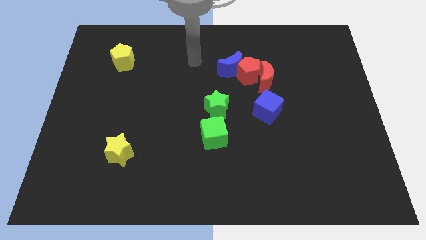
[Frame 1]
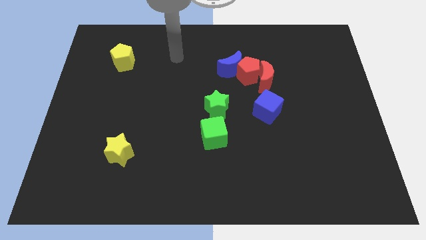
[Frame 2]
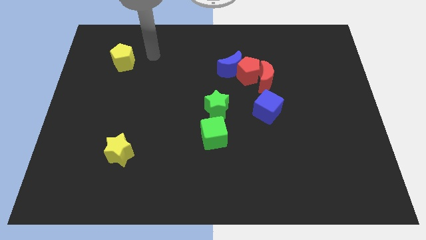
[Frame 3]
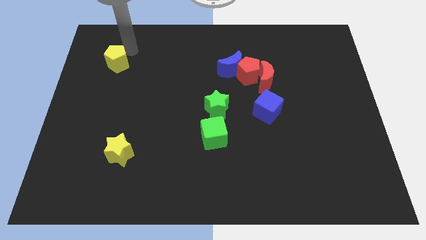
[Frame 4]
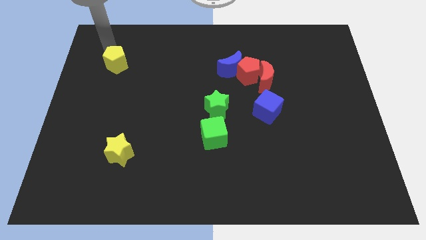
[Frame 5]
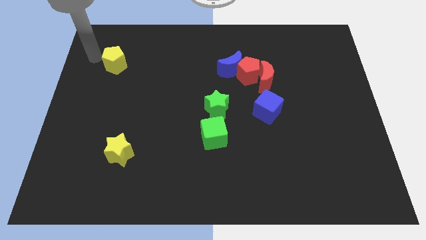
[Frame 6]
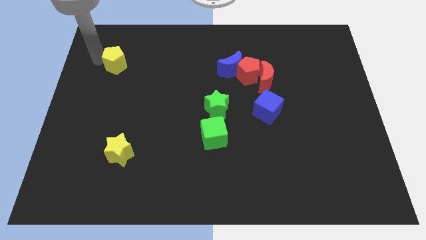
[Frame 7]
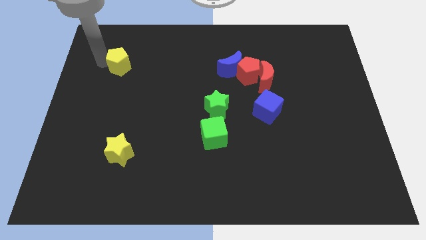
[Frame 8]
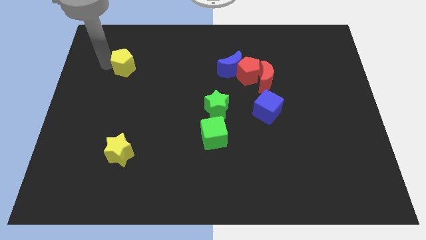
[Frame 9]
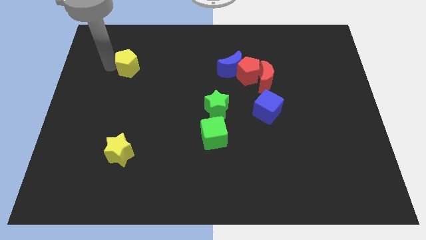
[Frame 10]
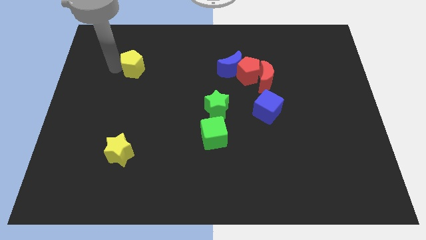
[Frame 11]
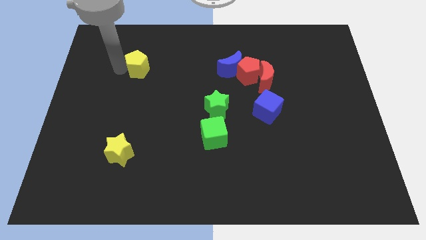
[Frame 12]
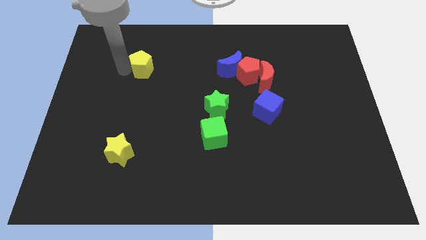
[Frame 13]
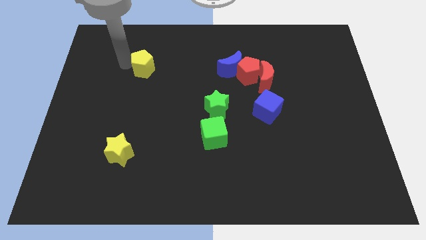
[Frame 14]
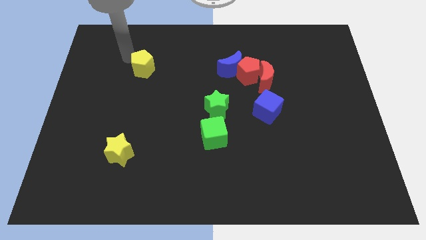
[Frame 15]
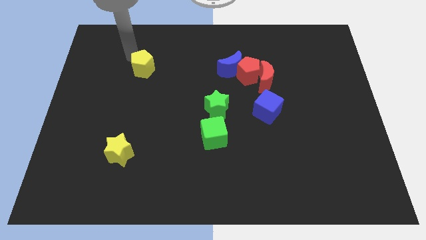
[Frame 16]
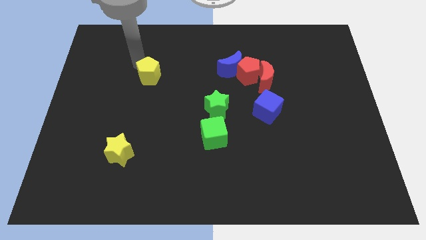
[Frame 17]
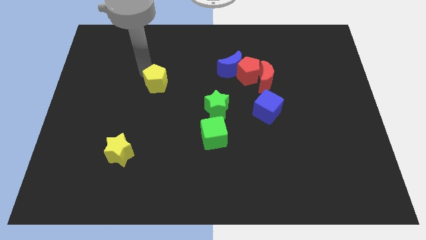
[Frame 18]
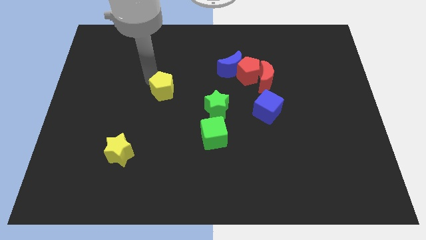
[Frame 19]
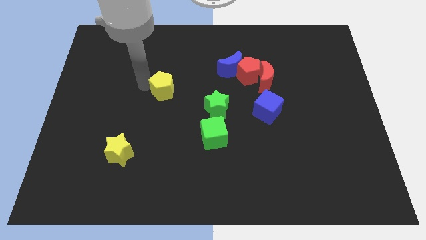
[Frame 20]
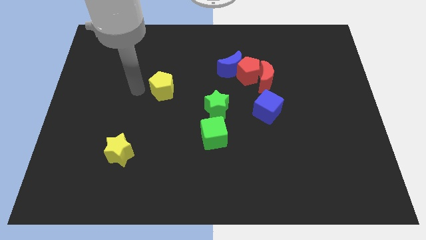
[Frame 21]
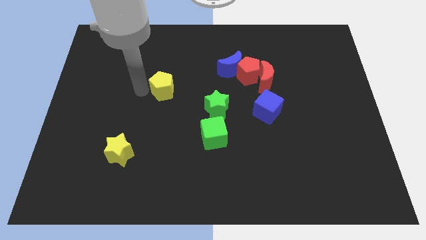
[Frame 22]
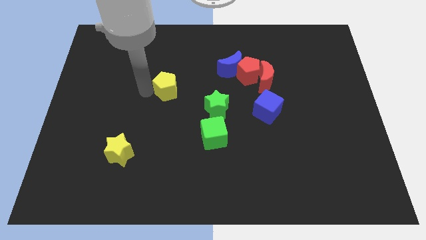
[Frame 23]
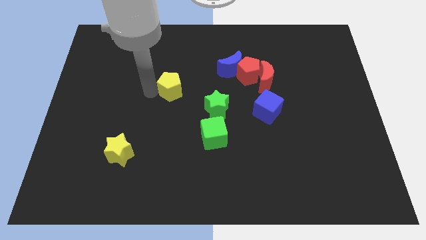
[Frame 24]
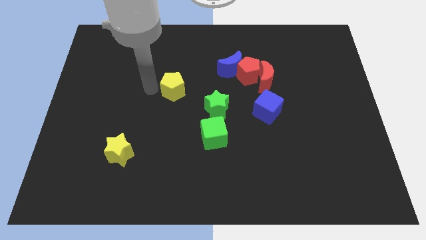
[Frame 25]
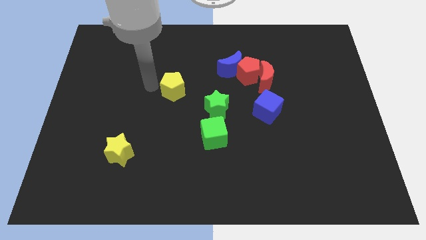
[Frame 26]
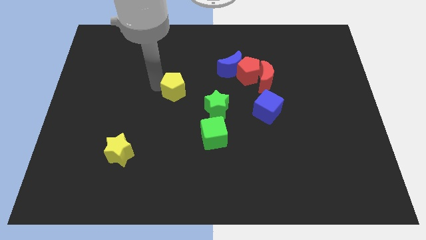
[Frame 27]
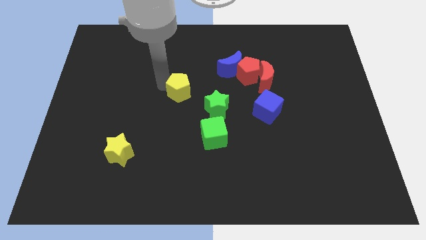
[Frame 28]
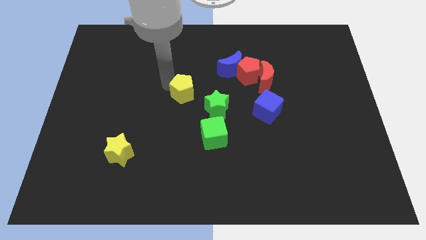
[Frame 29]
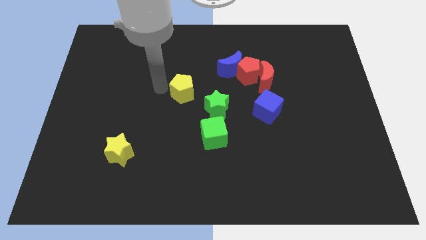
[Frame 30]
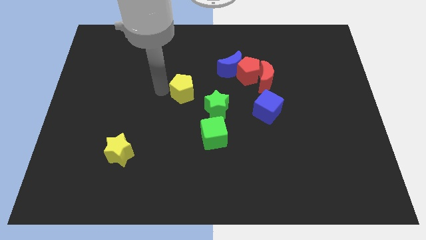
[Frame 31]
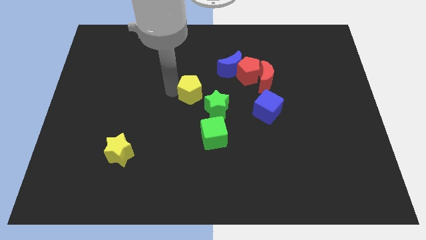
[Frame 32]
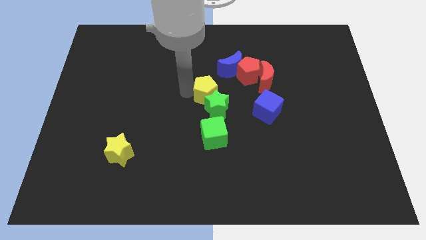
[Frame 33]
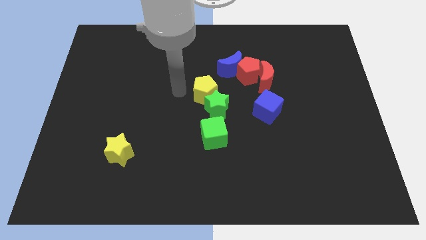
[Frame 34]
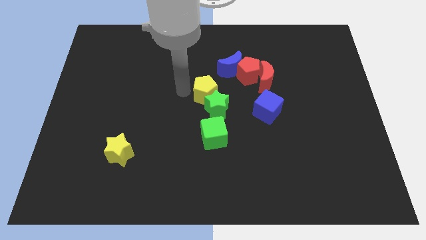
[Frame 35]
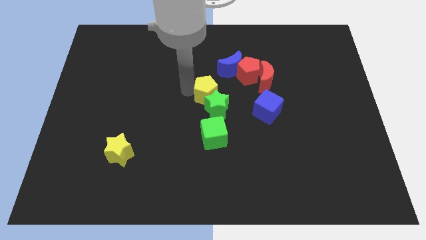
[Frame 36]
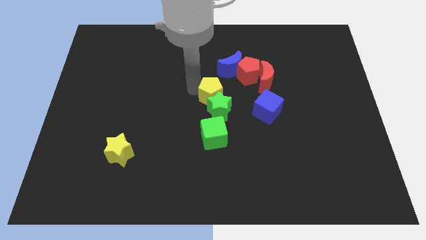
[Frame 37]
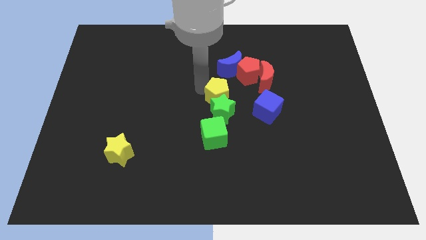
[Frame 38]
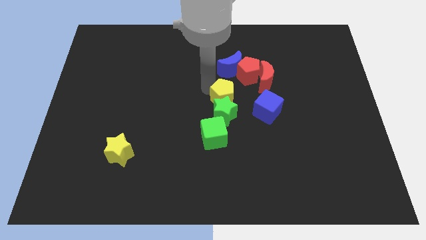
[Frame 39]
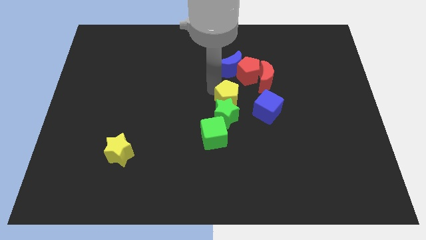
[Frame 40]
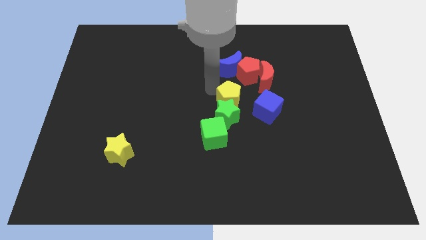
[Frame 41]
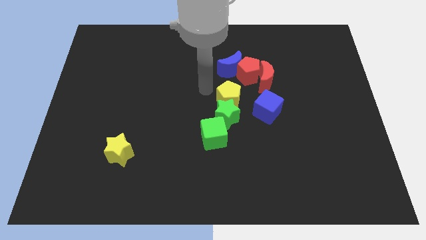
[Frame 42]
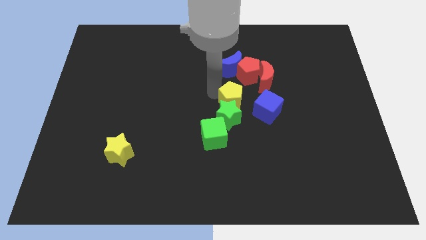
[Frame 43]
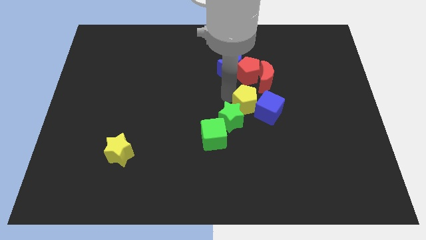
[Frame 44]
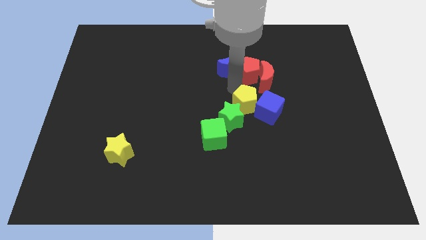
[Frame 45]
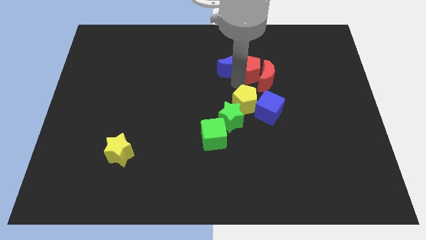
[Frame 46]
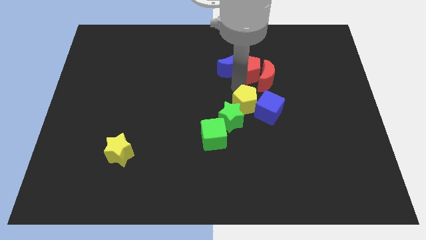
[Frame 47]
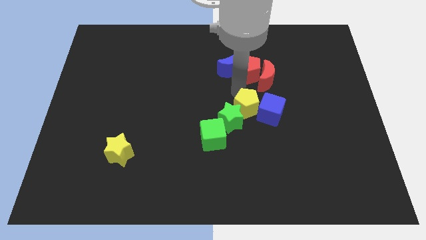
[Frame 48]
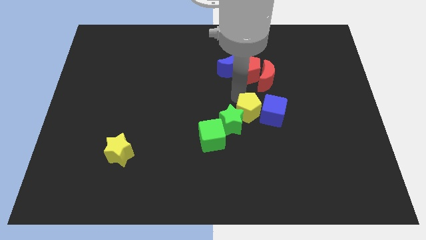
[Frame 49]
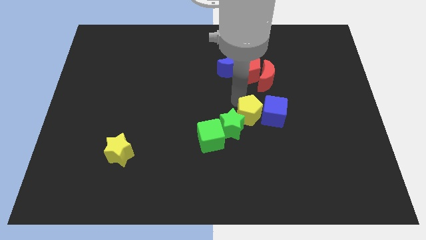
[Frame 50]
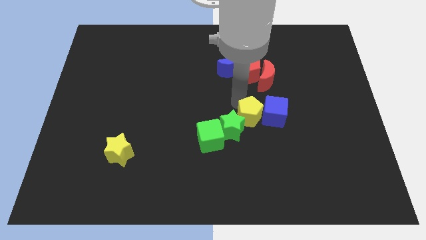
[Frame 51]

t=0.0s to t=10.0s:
slide the yellow pentagon to the bottom of the red moon

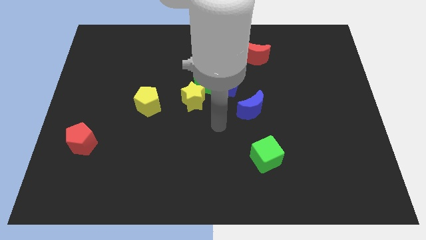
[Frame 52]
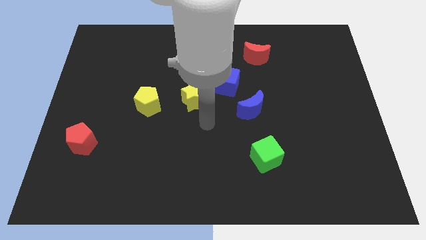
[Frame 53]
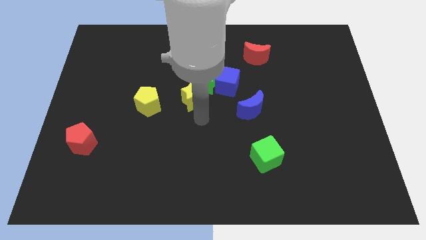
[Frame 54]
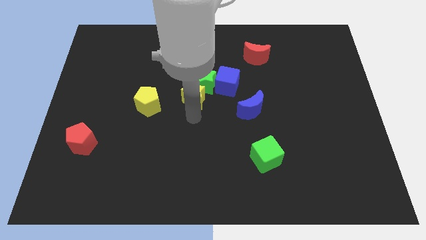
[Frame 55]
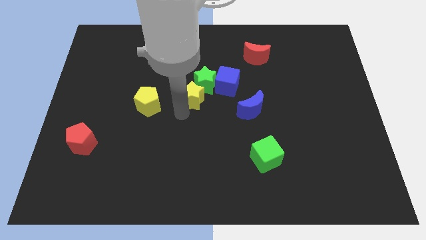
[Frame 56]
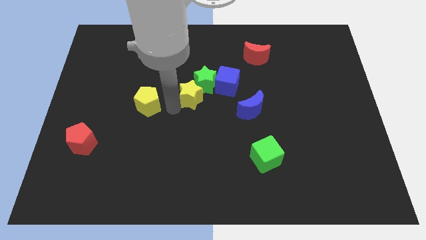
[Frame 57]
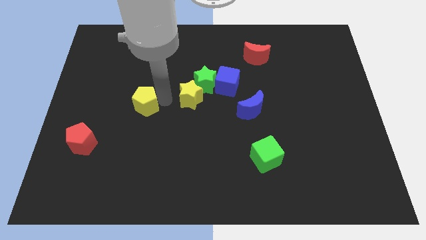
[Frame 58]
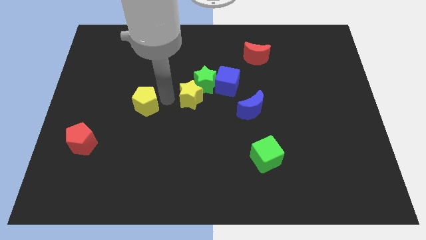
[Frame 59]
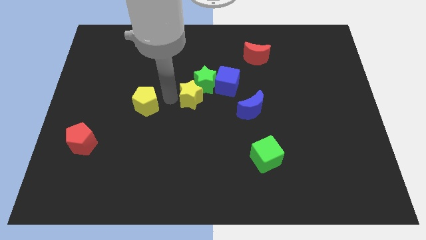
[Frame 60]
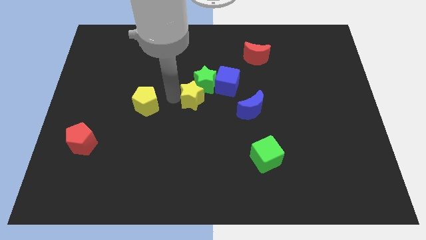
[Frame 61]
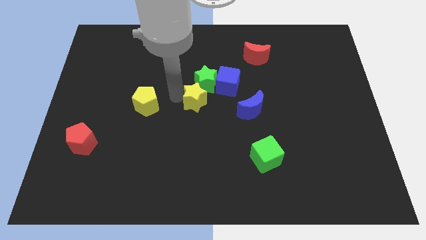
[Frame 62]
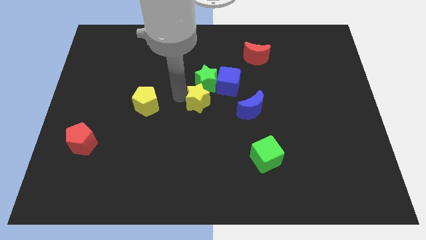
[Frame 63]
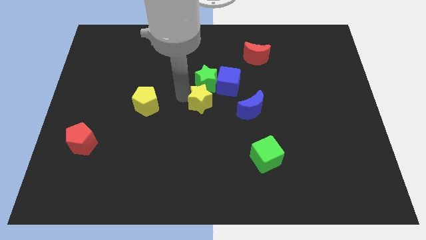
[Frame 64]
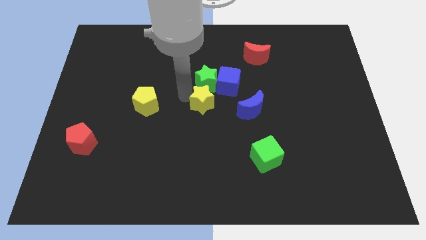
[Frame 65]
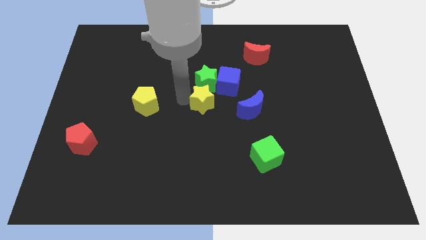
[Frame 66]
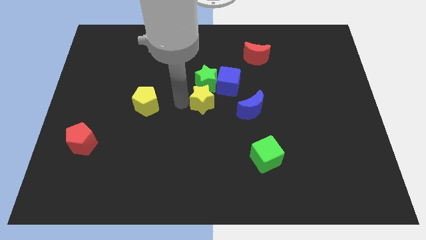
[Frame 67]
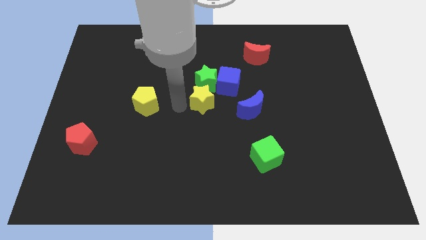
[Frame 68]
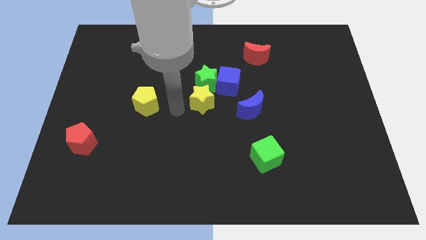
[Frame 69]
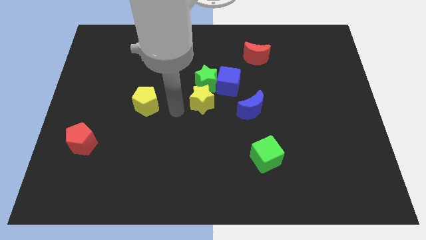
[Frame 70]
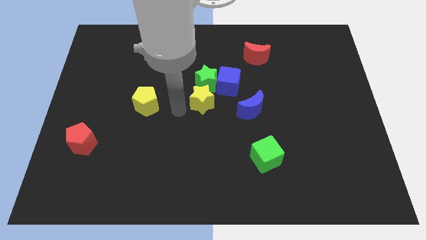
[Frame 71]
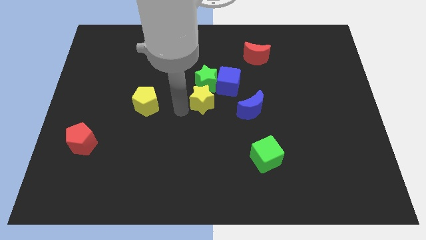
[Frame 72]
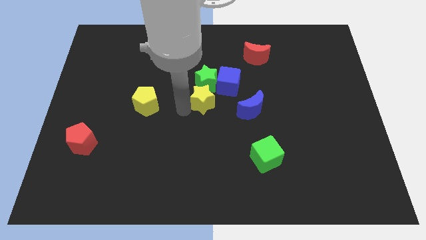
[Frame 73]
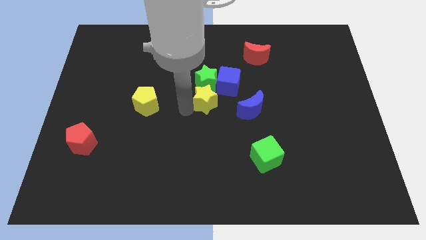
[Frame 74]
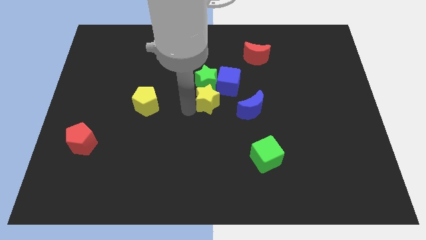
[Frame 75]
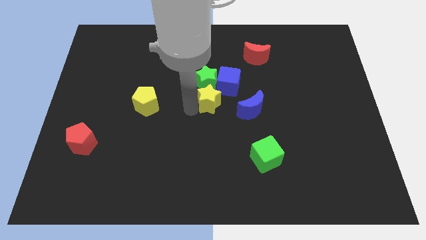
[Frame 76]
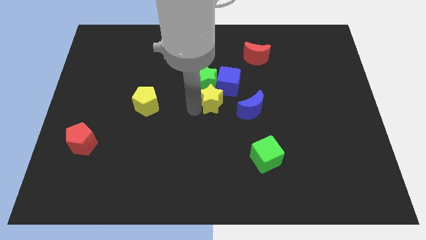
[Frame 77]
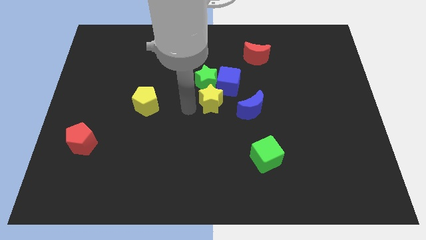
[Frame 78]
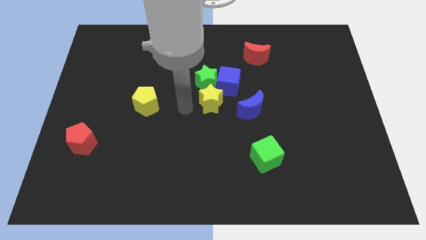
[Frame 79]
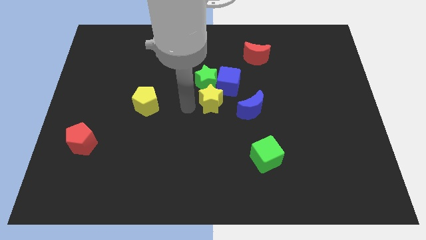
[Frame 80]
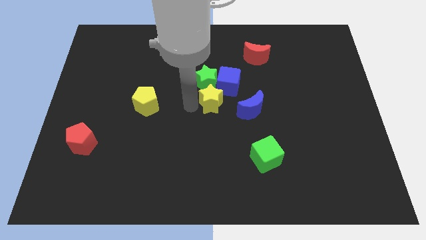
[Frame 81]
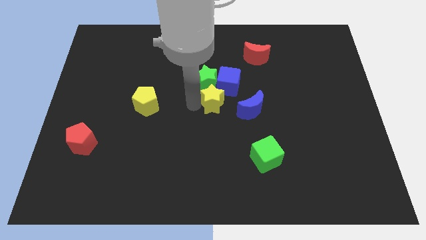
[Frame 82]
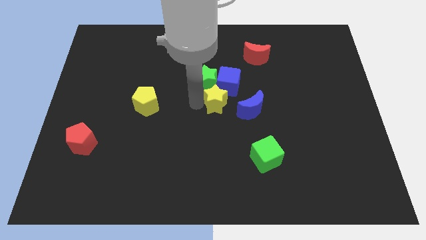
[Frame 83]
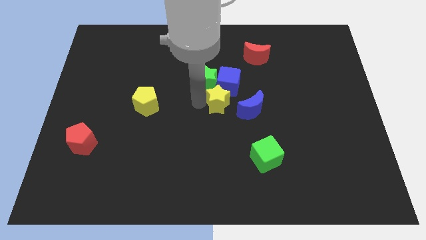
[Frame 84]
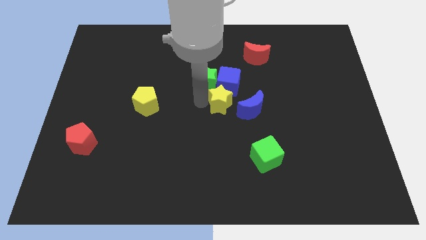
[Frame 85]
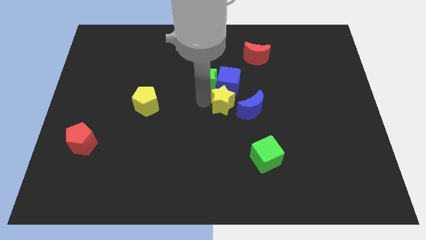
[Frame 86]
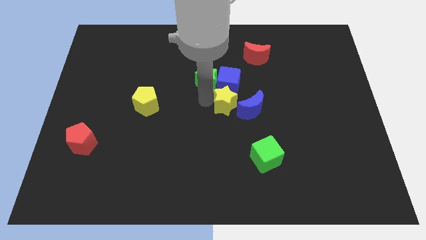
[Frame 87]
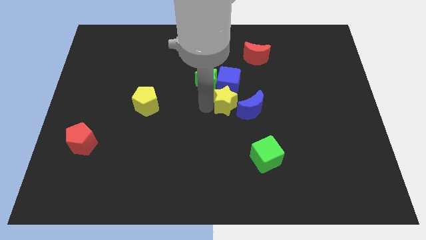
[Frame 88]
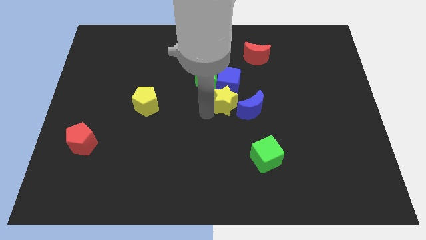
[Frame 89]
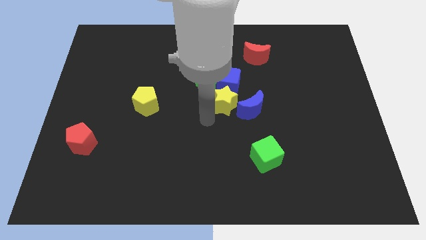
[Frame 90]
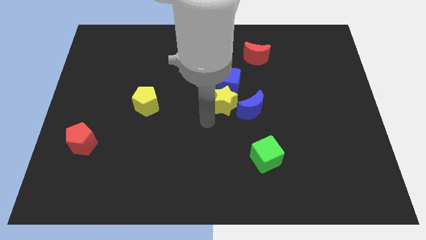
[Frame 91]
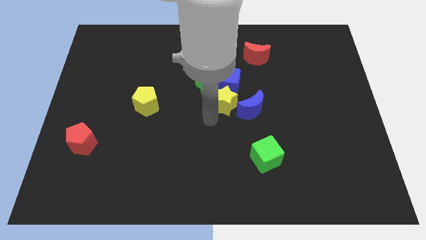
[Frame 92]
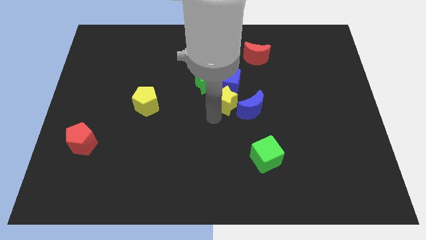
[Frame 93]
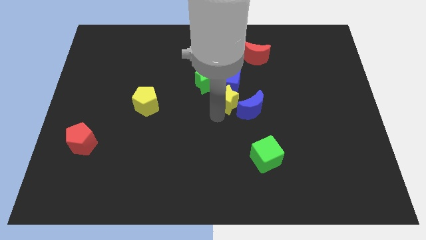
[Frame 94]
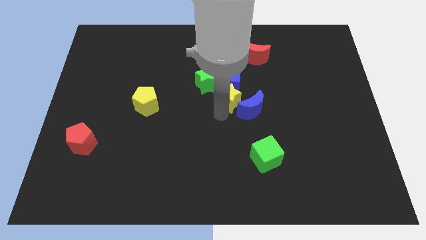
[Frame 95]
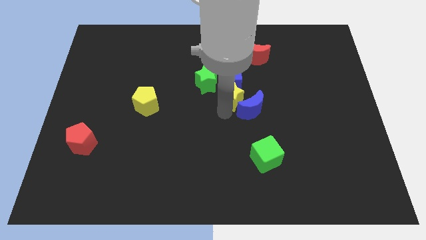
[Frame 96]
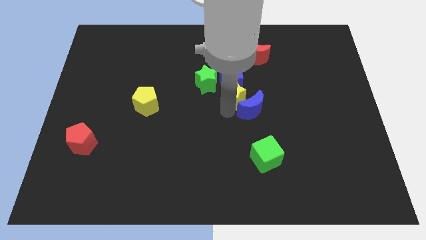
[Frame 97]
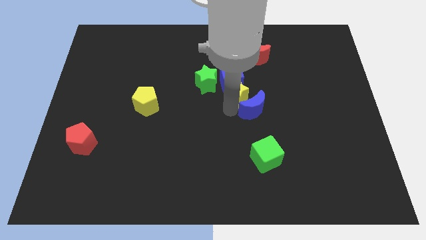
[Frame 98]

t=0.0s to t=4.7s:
slide the yellow star to the right side of the green star
